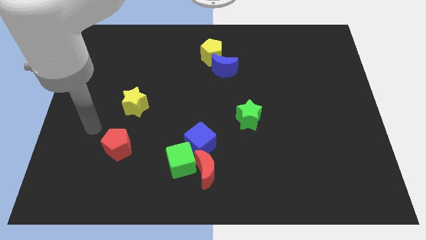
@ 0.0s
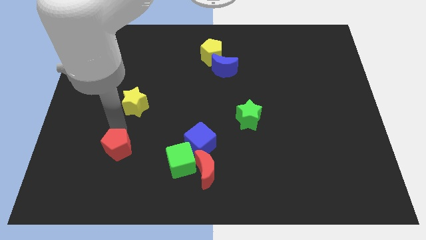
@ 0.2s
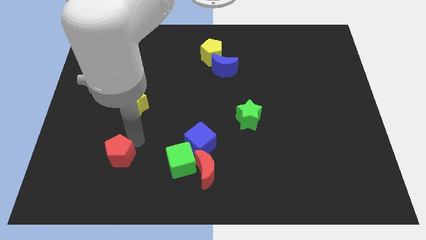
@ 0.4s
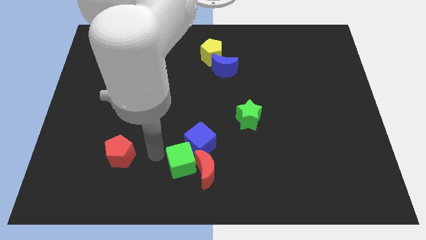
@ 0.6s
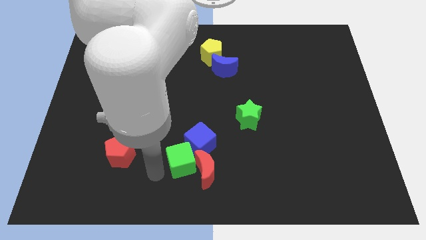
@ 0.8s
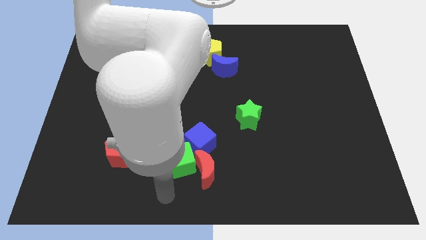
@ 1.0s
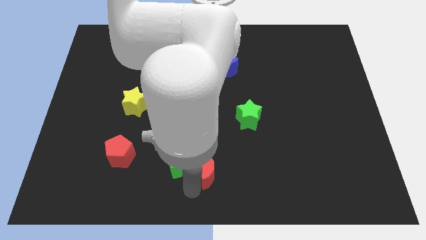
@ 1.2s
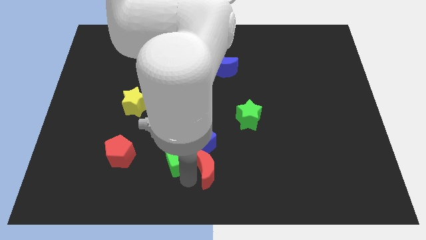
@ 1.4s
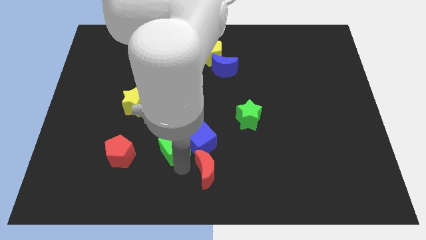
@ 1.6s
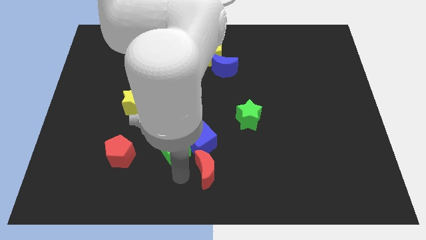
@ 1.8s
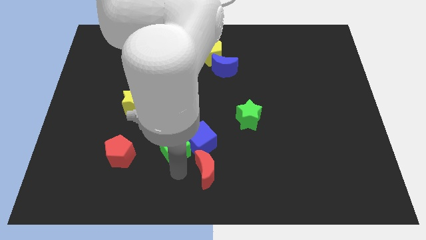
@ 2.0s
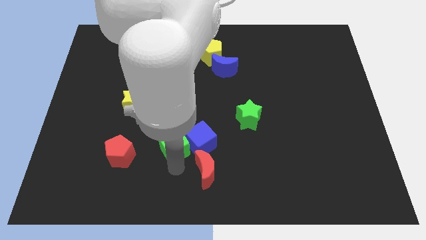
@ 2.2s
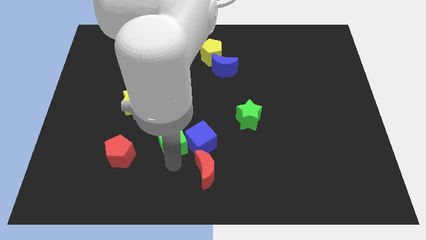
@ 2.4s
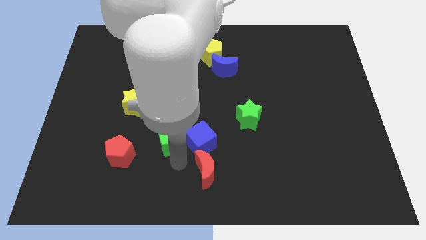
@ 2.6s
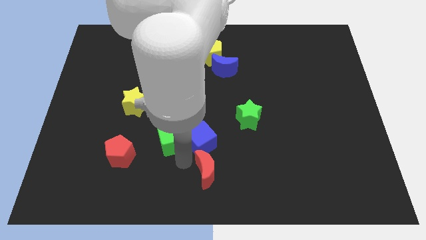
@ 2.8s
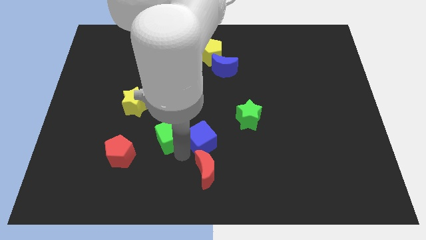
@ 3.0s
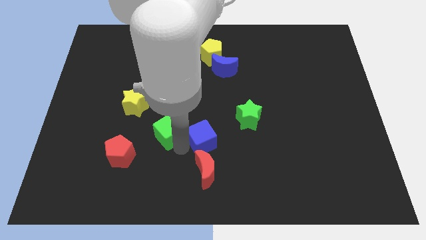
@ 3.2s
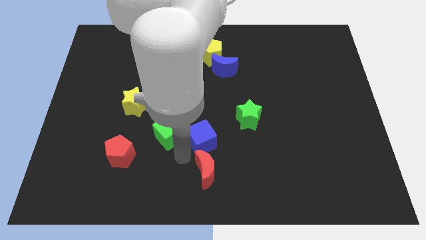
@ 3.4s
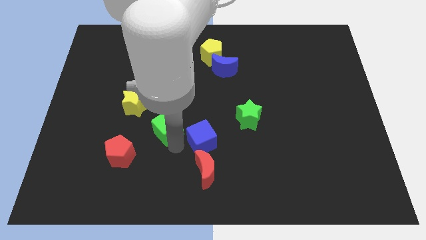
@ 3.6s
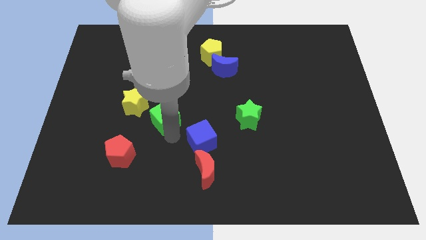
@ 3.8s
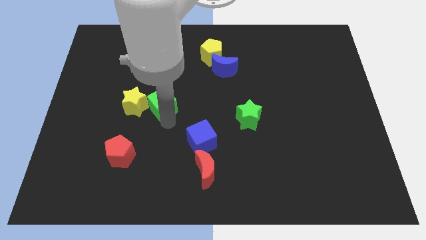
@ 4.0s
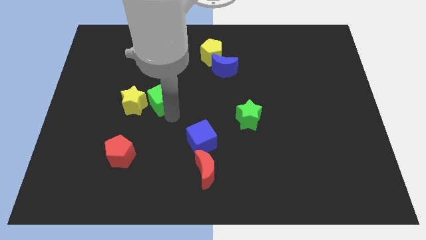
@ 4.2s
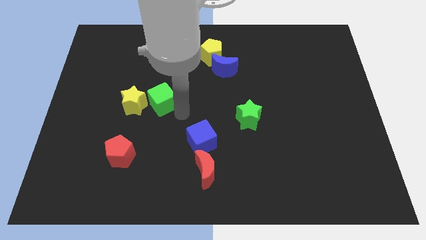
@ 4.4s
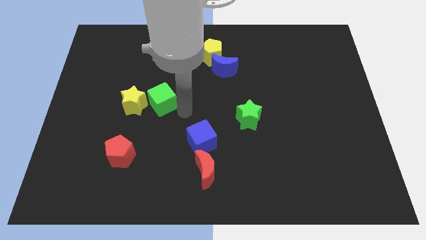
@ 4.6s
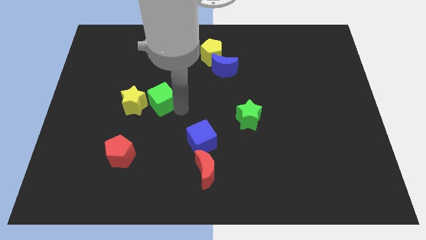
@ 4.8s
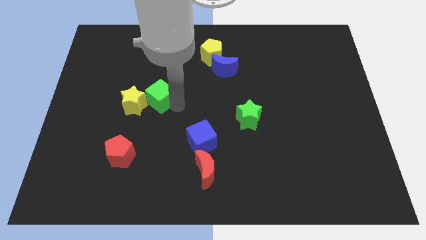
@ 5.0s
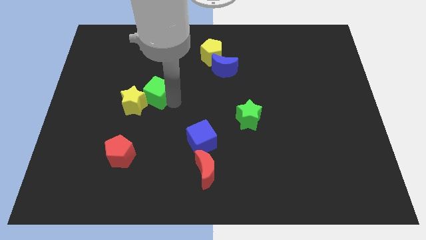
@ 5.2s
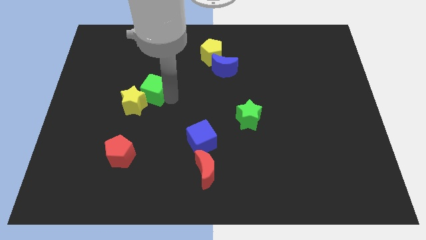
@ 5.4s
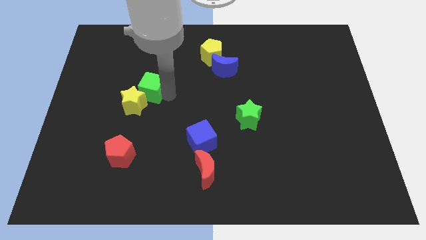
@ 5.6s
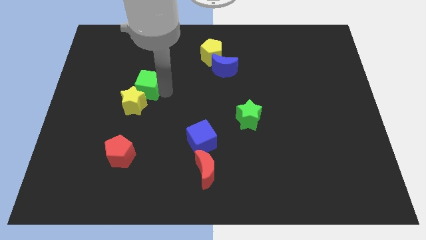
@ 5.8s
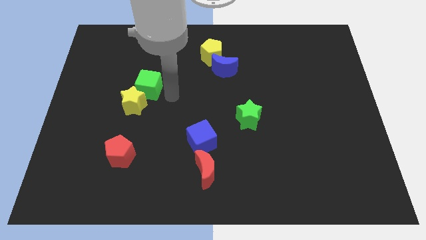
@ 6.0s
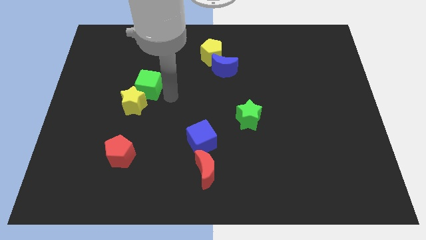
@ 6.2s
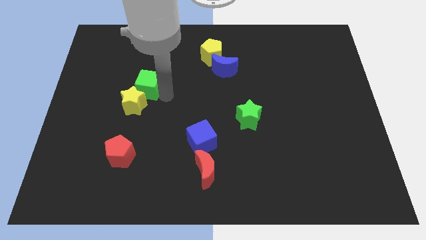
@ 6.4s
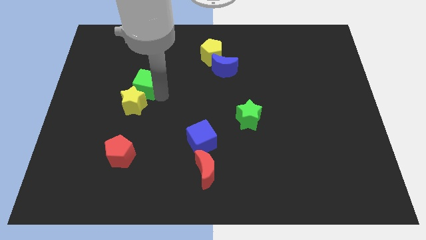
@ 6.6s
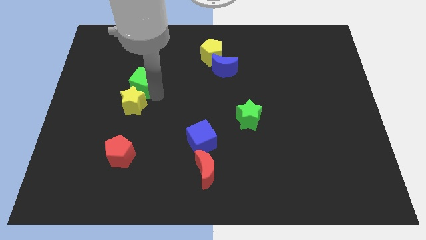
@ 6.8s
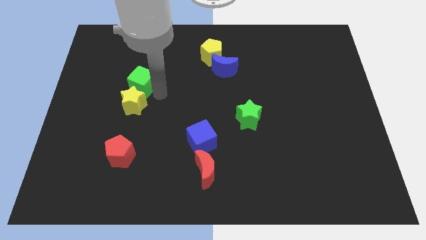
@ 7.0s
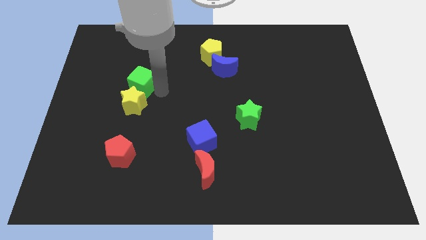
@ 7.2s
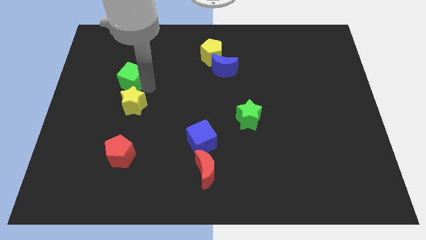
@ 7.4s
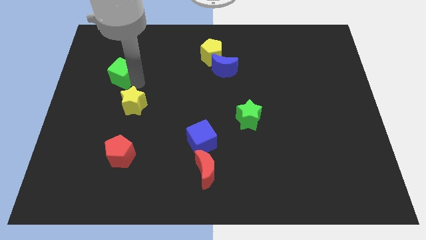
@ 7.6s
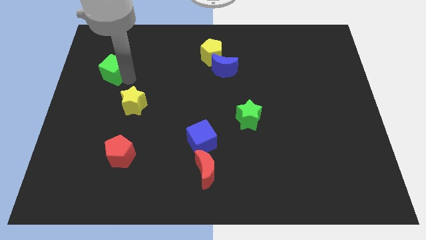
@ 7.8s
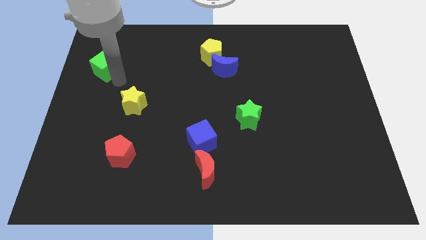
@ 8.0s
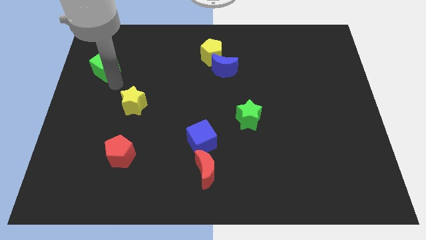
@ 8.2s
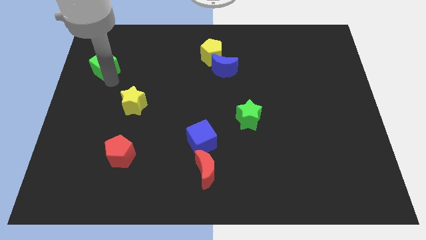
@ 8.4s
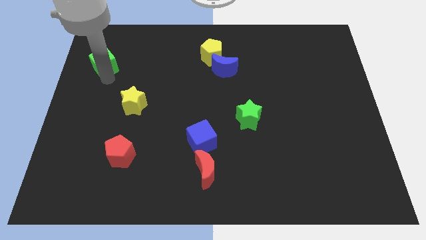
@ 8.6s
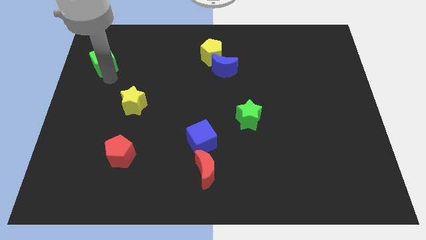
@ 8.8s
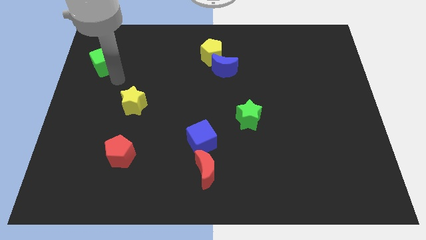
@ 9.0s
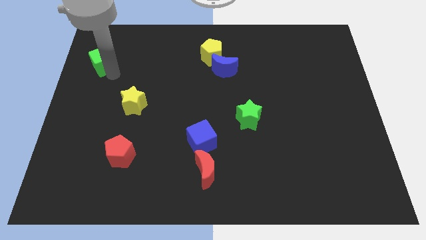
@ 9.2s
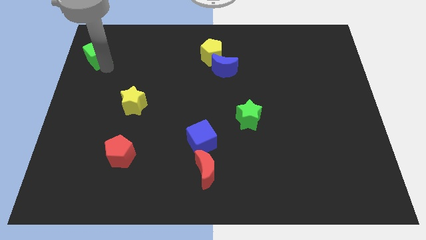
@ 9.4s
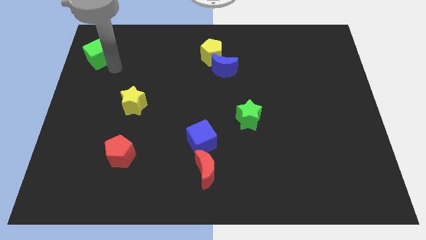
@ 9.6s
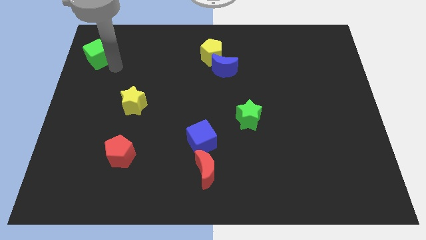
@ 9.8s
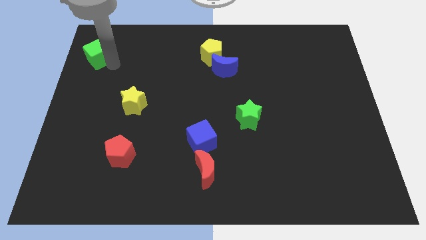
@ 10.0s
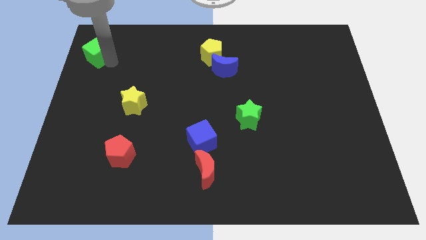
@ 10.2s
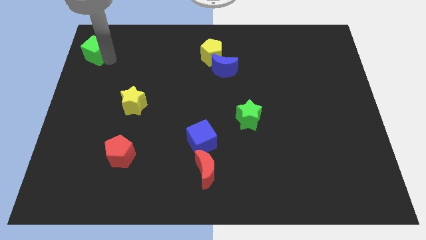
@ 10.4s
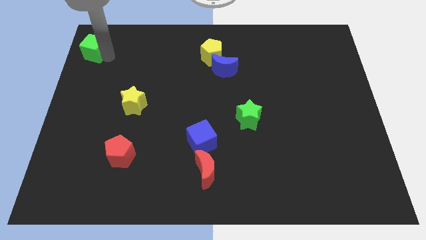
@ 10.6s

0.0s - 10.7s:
put the green cube to the upper left corner
